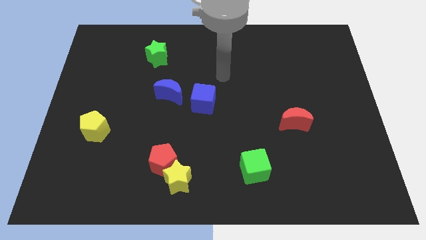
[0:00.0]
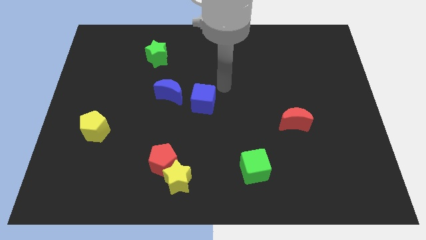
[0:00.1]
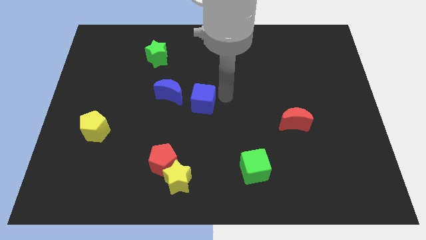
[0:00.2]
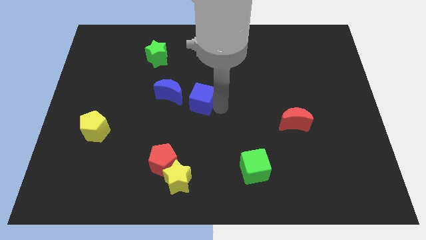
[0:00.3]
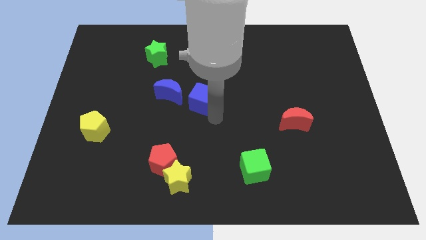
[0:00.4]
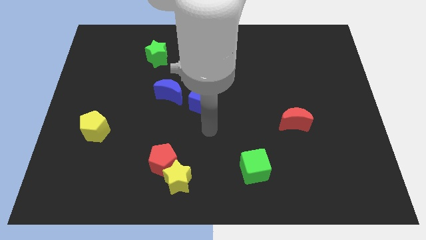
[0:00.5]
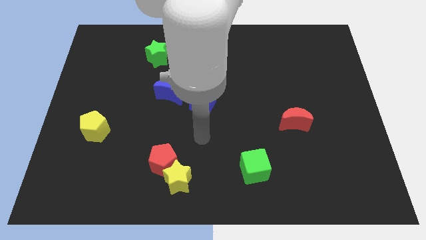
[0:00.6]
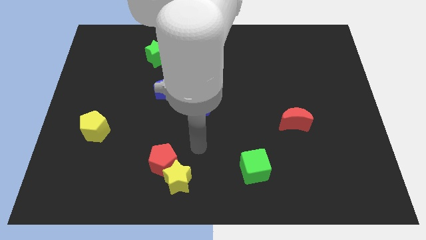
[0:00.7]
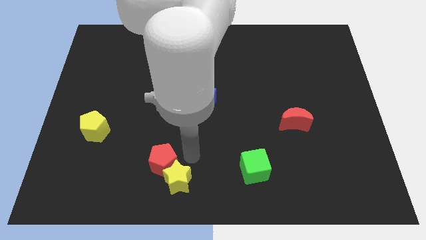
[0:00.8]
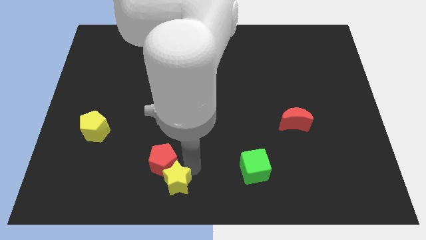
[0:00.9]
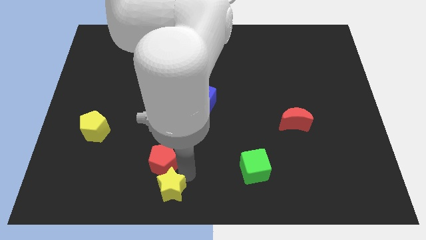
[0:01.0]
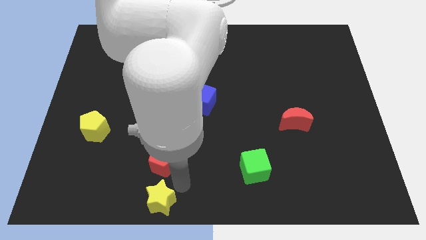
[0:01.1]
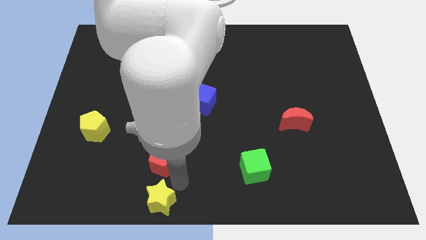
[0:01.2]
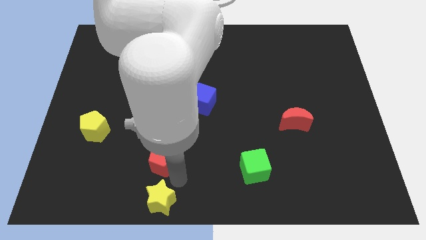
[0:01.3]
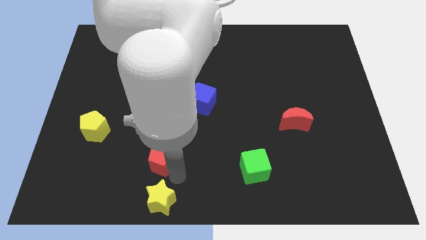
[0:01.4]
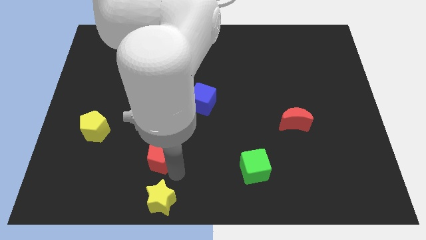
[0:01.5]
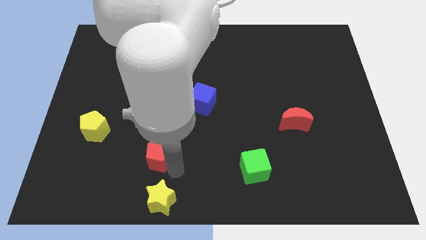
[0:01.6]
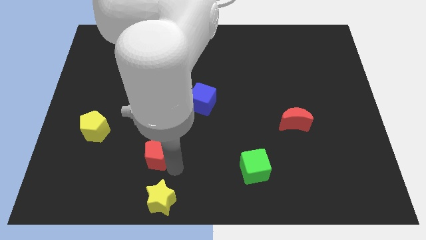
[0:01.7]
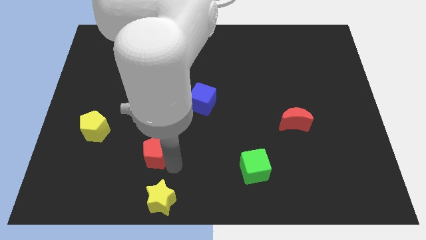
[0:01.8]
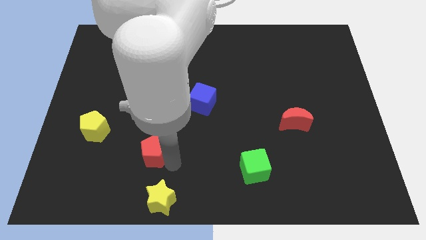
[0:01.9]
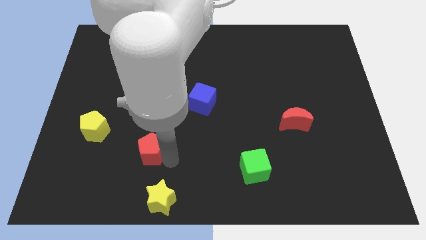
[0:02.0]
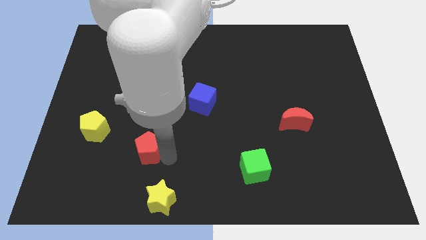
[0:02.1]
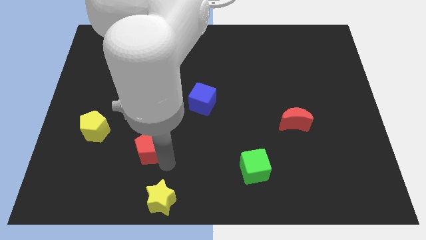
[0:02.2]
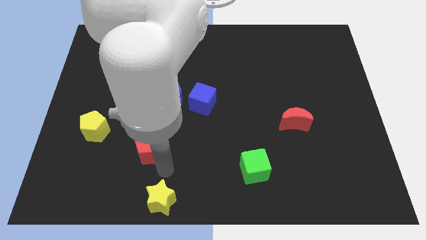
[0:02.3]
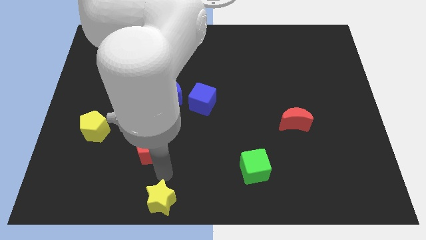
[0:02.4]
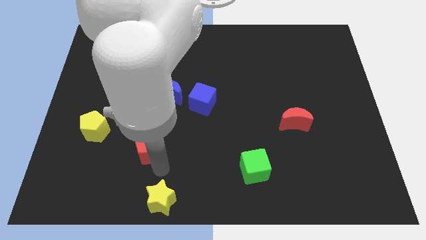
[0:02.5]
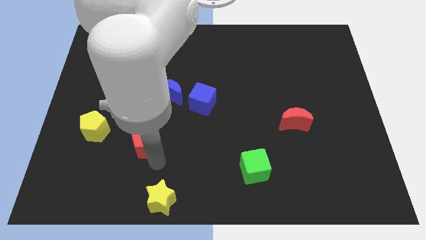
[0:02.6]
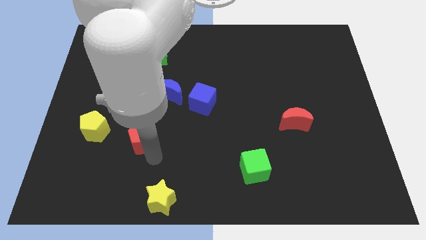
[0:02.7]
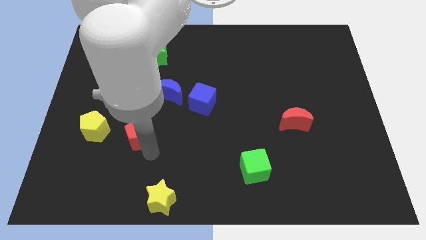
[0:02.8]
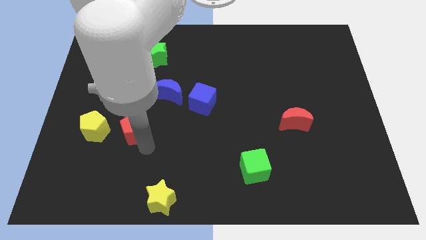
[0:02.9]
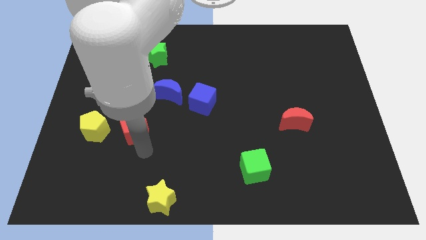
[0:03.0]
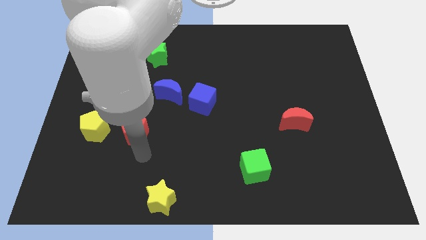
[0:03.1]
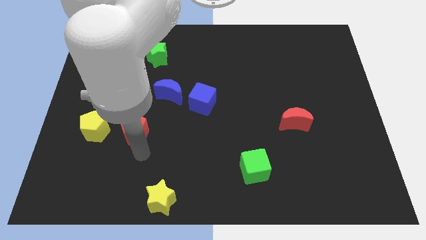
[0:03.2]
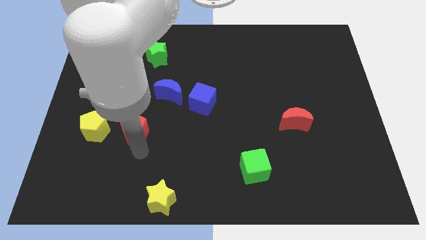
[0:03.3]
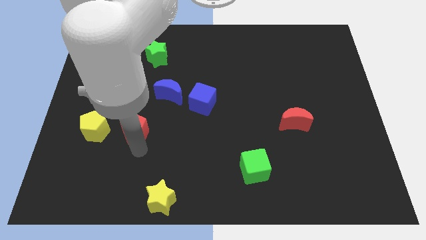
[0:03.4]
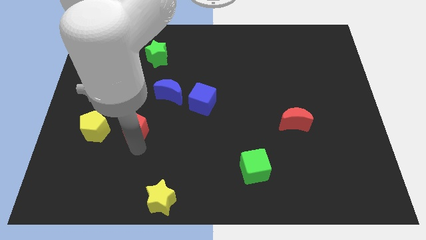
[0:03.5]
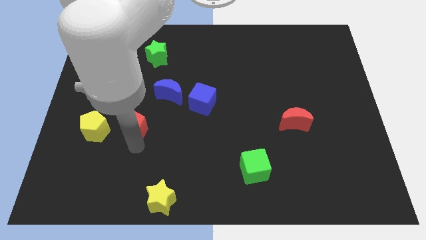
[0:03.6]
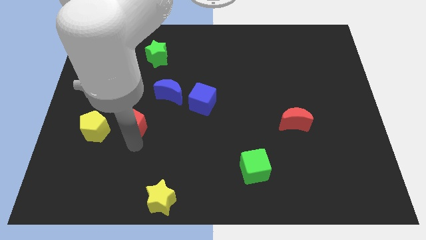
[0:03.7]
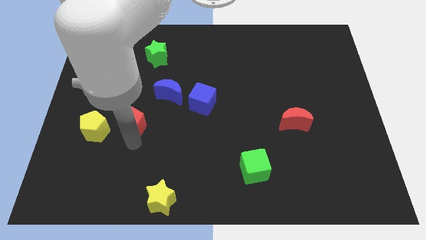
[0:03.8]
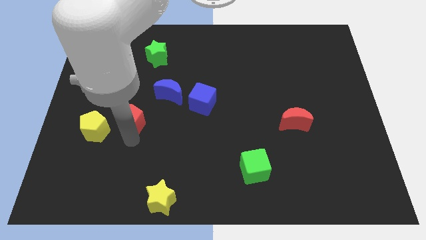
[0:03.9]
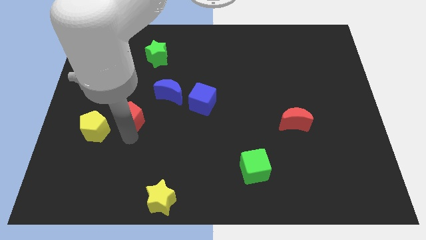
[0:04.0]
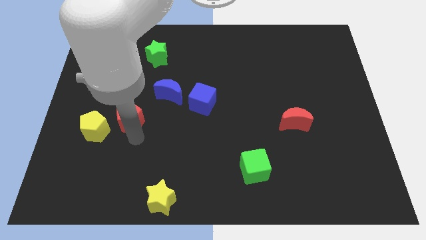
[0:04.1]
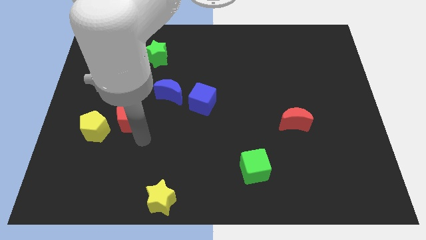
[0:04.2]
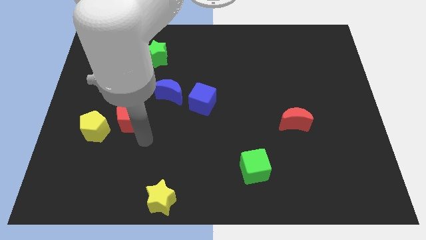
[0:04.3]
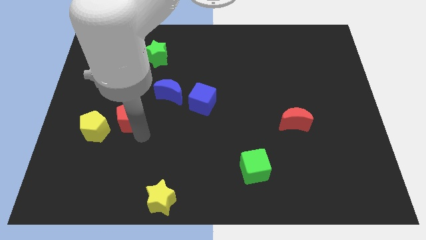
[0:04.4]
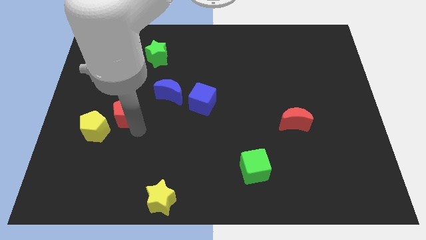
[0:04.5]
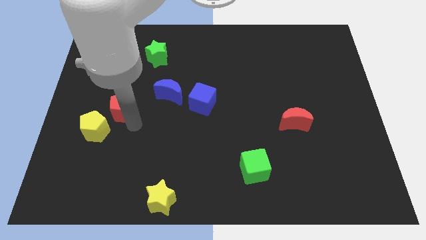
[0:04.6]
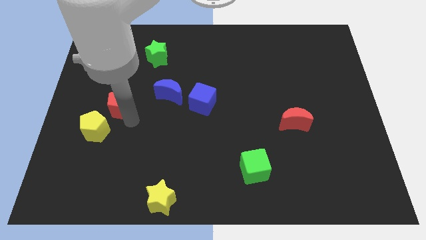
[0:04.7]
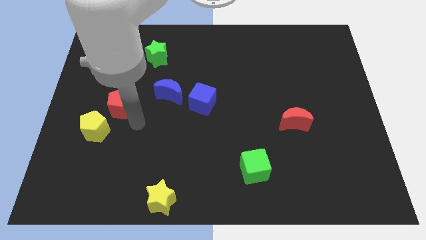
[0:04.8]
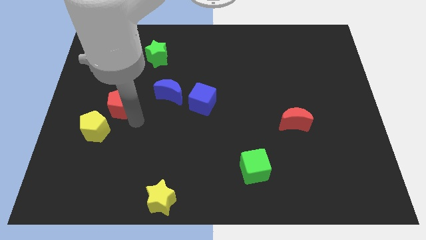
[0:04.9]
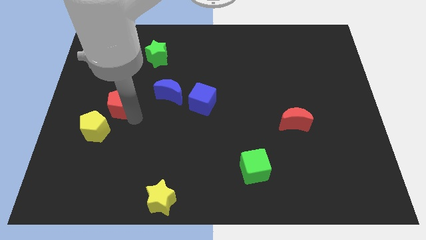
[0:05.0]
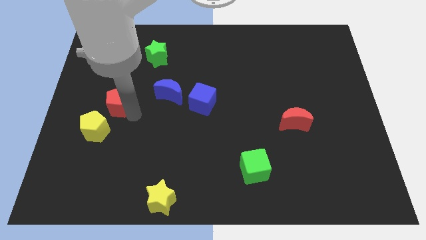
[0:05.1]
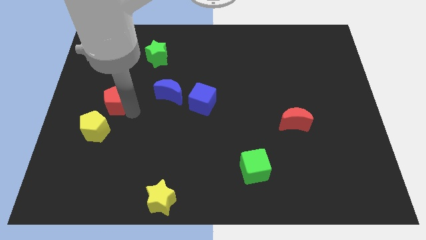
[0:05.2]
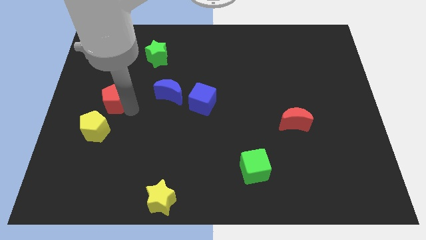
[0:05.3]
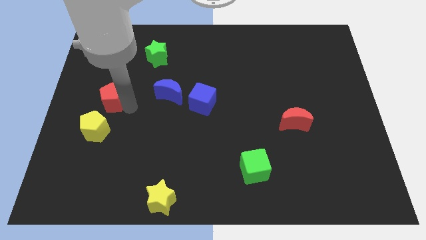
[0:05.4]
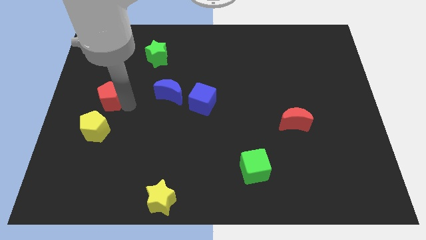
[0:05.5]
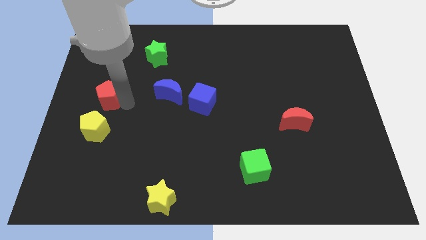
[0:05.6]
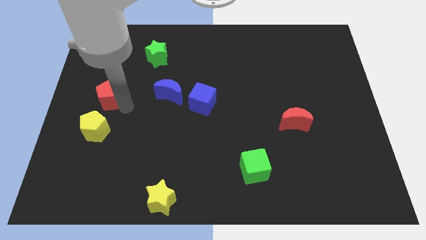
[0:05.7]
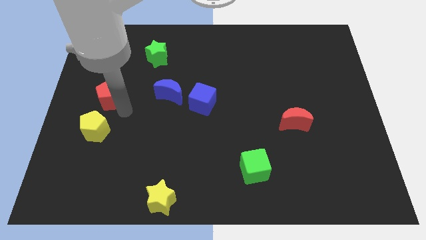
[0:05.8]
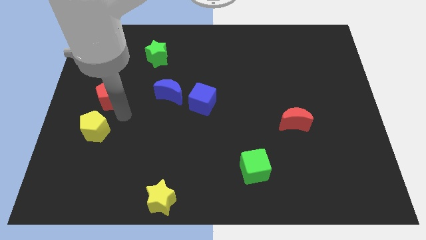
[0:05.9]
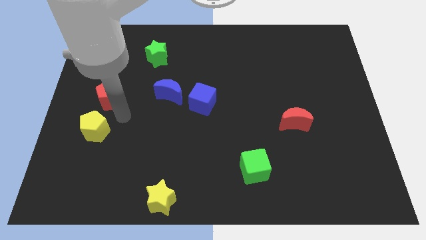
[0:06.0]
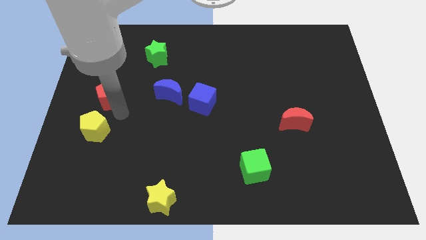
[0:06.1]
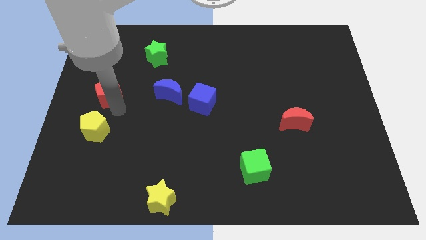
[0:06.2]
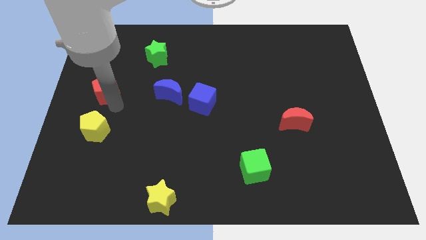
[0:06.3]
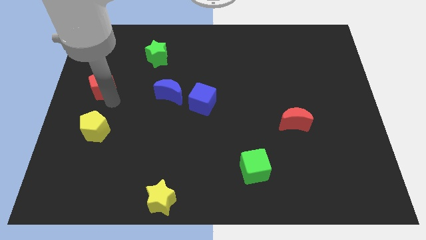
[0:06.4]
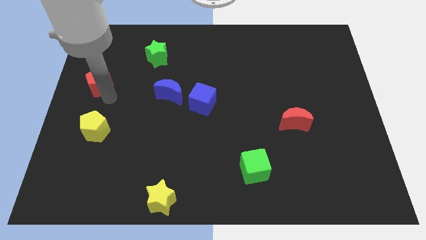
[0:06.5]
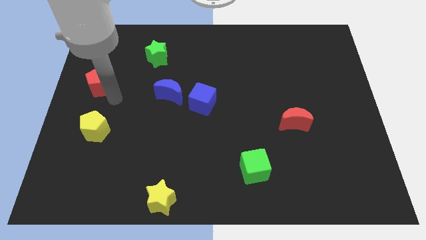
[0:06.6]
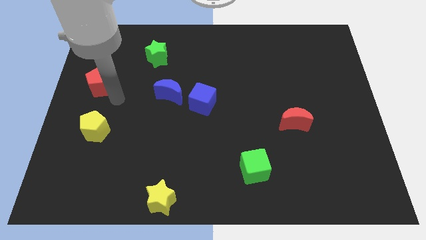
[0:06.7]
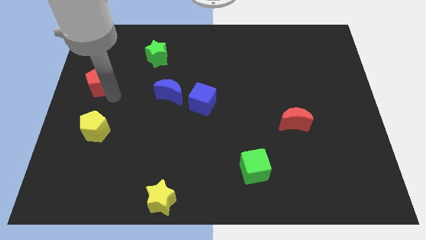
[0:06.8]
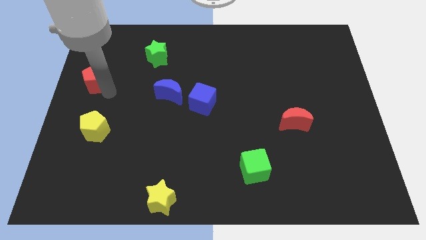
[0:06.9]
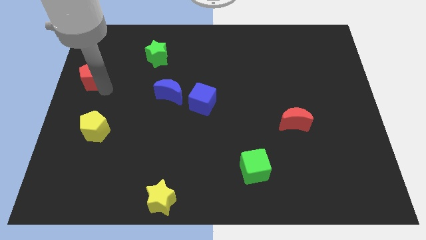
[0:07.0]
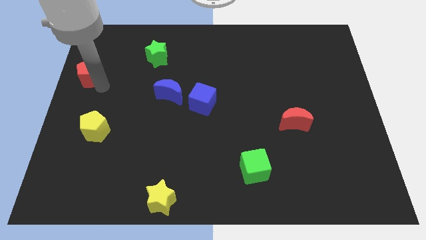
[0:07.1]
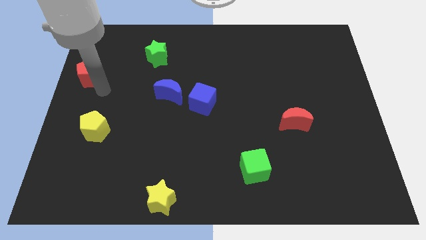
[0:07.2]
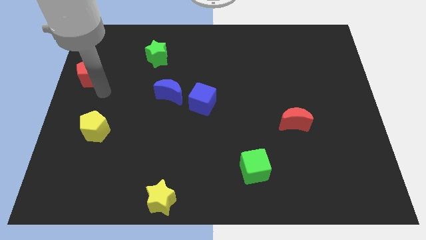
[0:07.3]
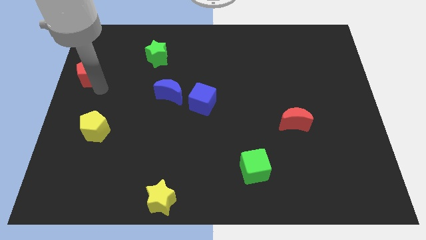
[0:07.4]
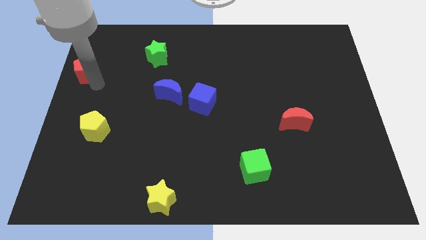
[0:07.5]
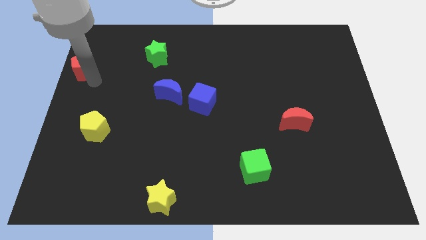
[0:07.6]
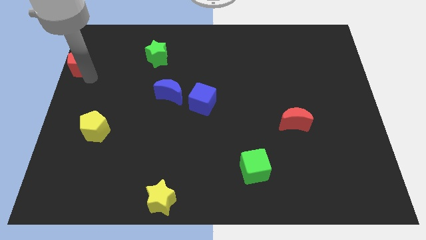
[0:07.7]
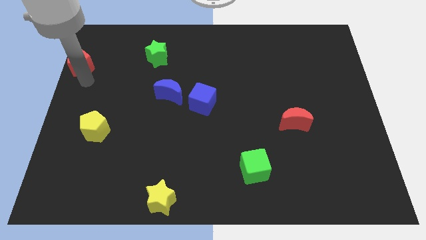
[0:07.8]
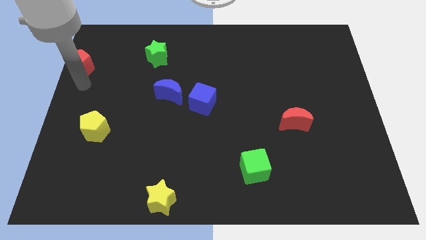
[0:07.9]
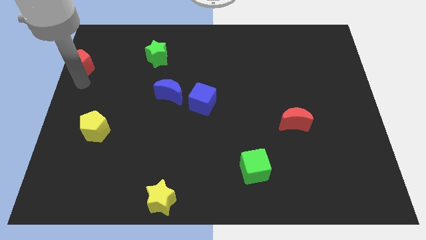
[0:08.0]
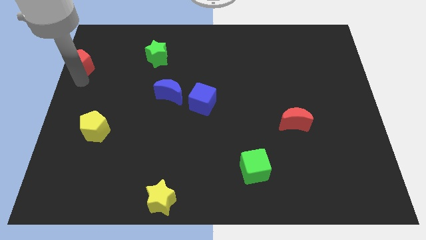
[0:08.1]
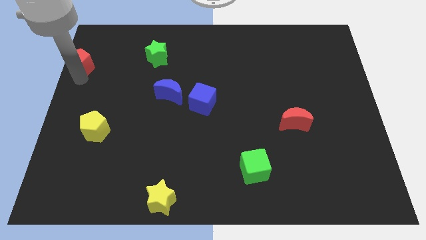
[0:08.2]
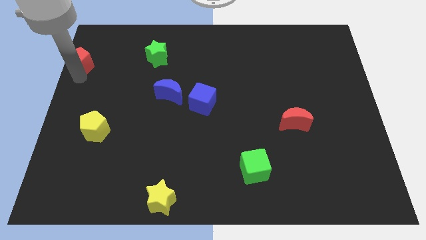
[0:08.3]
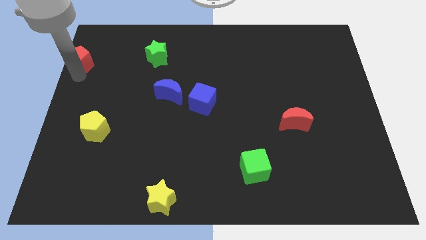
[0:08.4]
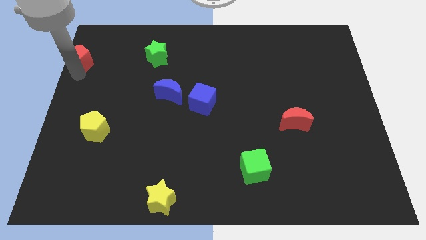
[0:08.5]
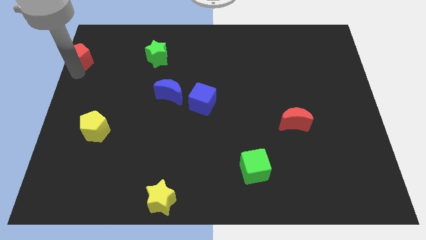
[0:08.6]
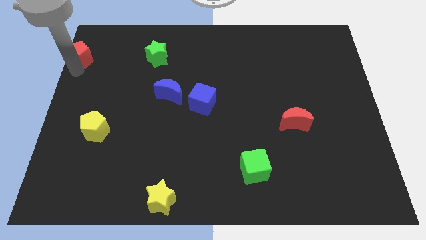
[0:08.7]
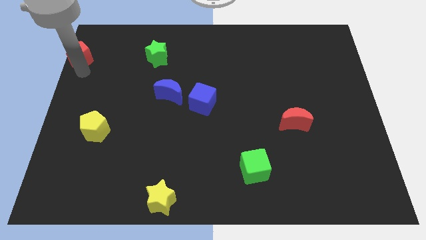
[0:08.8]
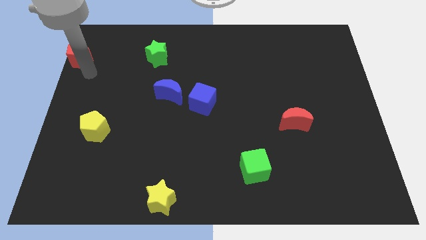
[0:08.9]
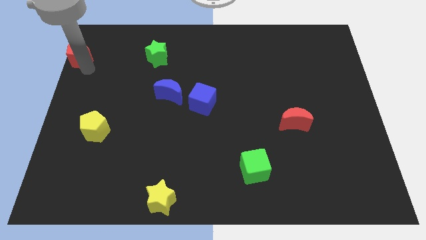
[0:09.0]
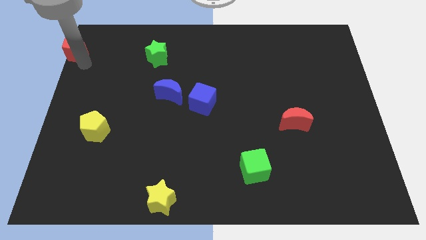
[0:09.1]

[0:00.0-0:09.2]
move the red pentagon to the upper left corner
